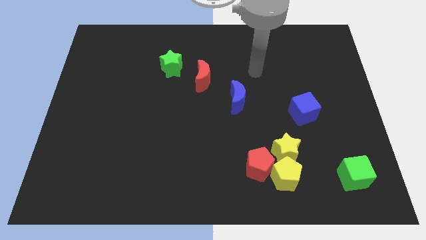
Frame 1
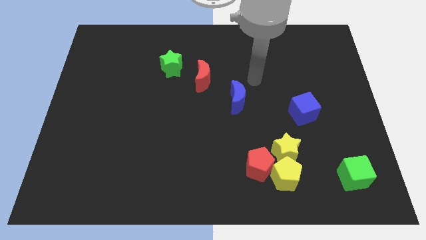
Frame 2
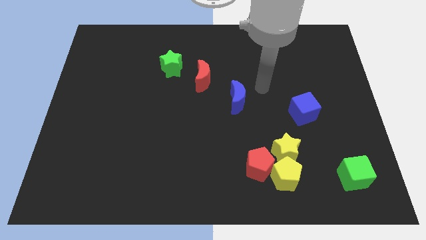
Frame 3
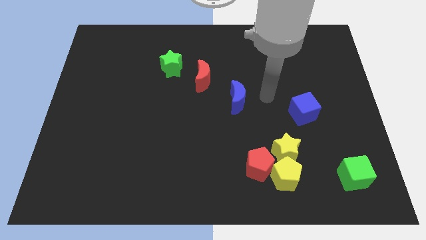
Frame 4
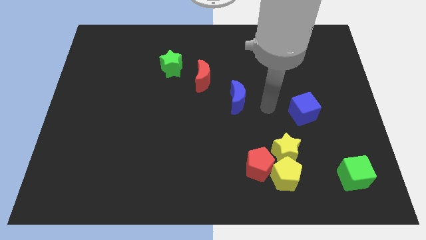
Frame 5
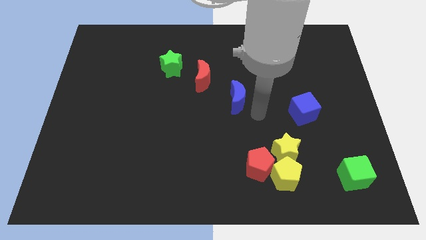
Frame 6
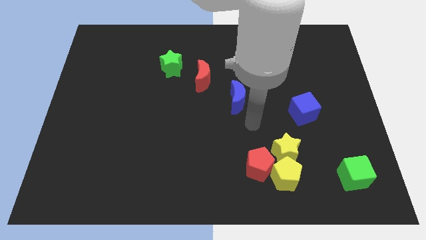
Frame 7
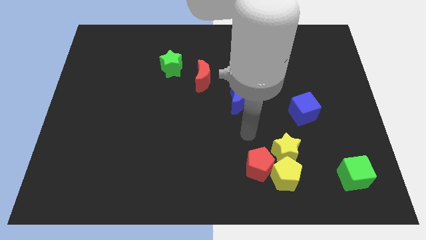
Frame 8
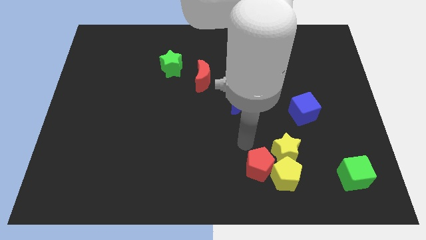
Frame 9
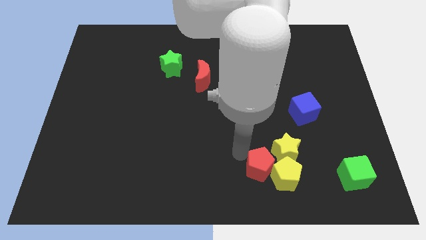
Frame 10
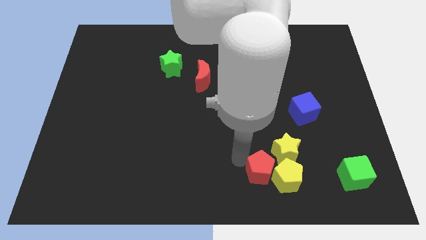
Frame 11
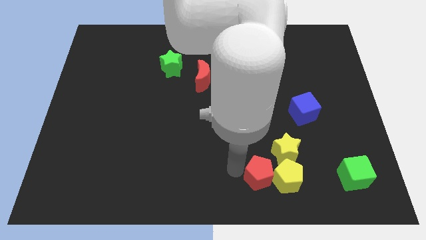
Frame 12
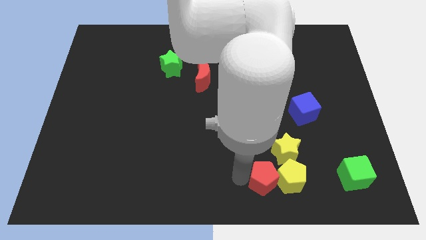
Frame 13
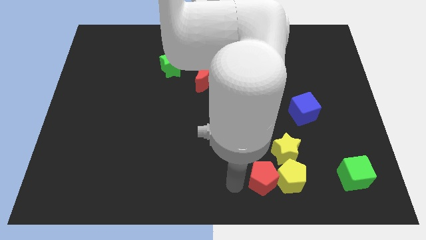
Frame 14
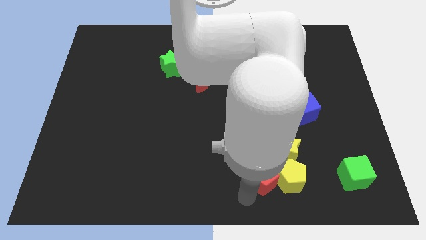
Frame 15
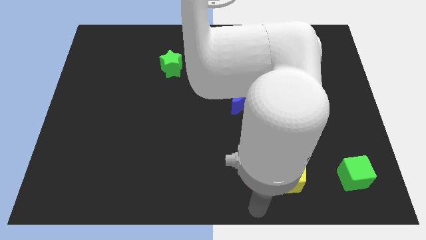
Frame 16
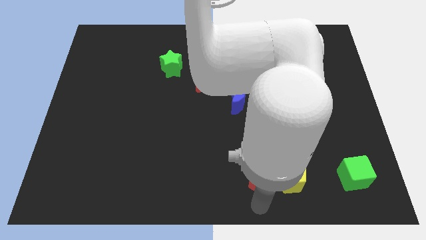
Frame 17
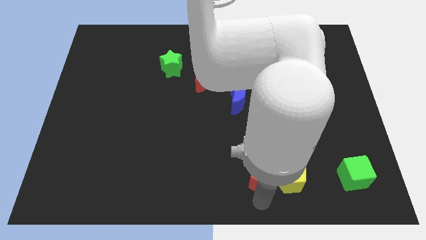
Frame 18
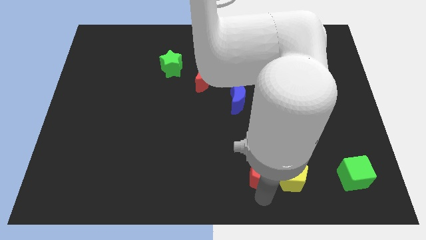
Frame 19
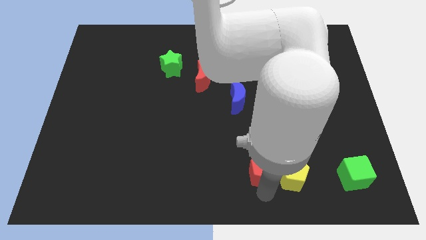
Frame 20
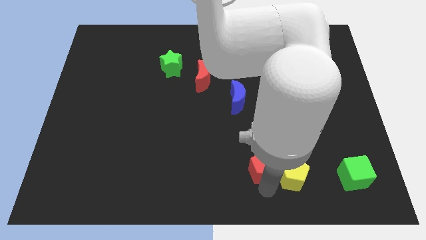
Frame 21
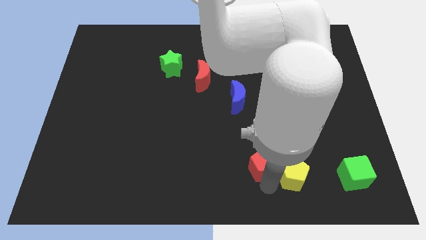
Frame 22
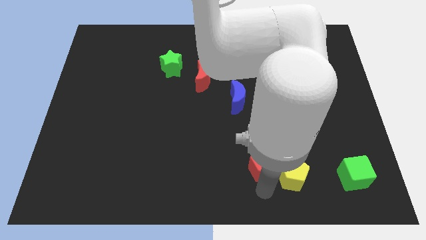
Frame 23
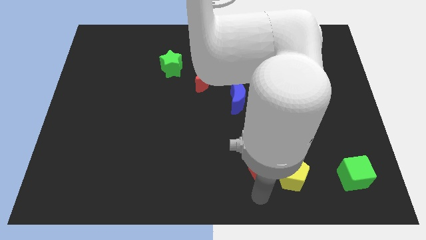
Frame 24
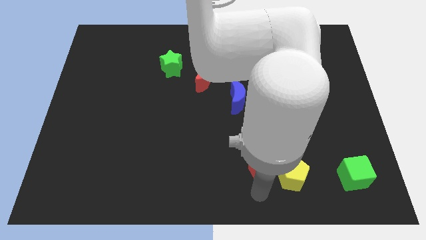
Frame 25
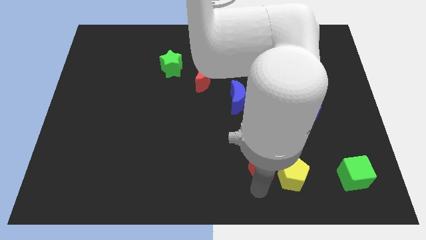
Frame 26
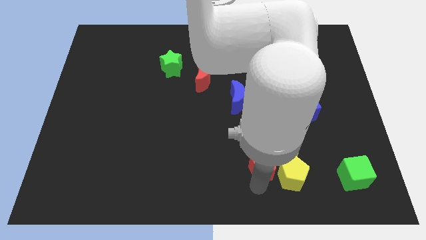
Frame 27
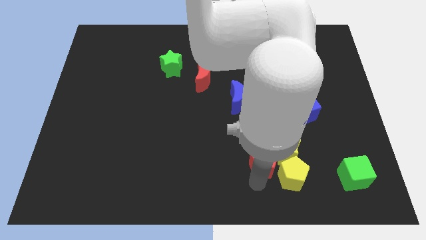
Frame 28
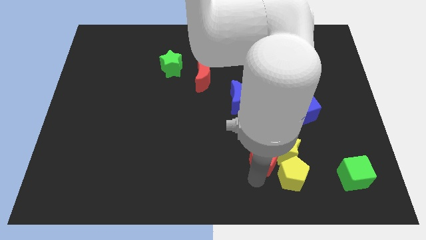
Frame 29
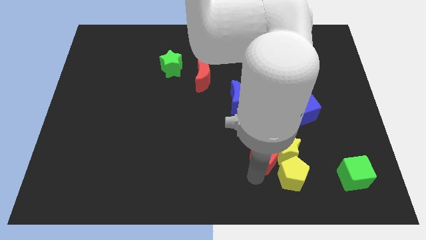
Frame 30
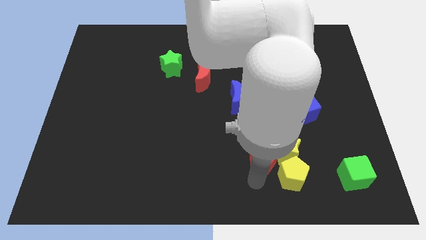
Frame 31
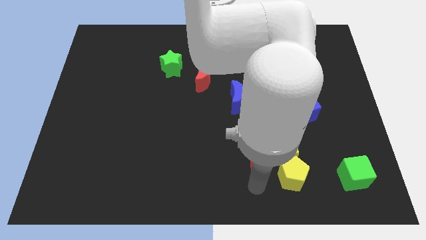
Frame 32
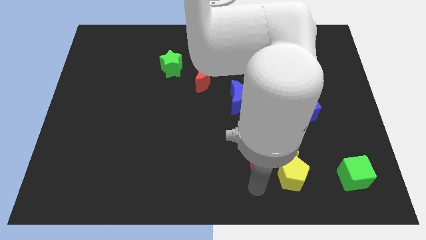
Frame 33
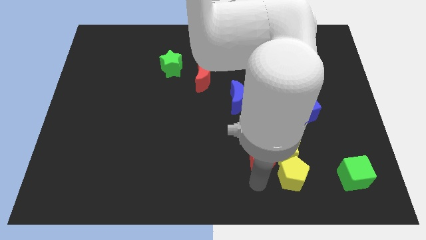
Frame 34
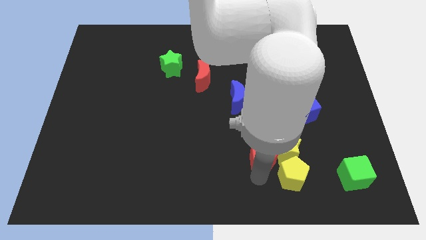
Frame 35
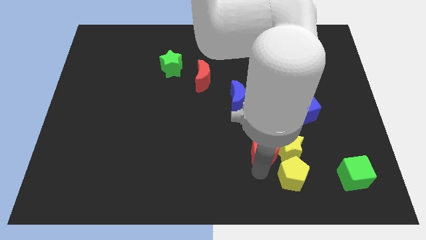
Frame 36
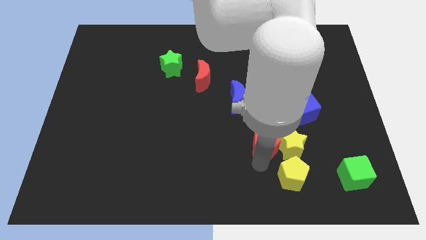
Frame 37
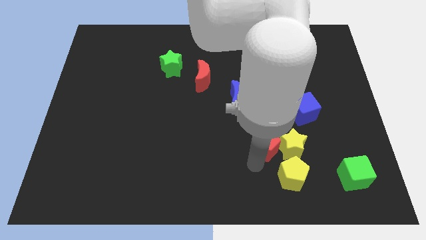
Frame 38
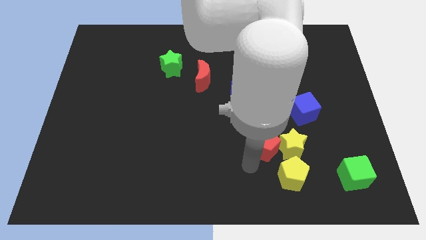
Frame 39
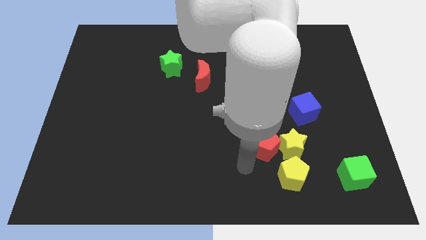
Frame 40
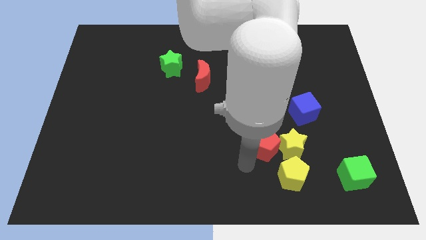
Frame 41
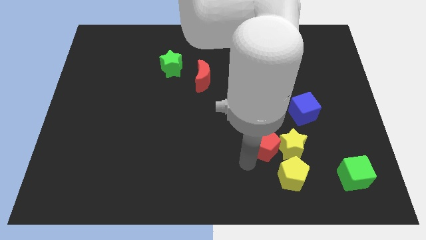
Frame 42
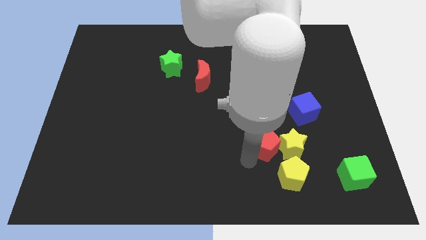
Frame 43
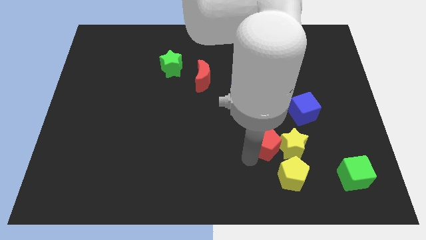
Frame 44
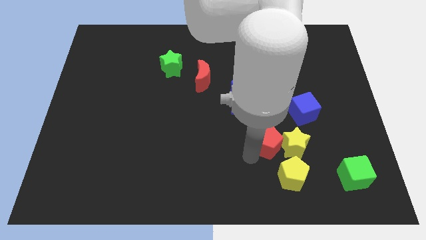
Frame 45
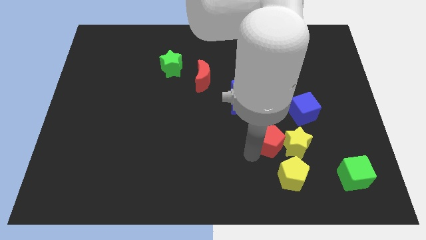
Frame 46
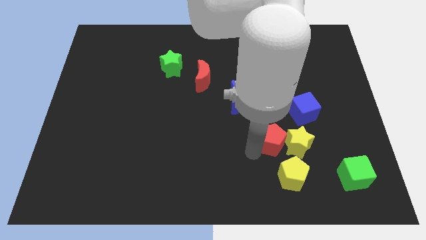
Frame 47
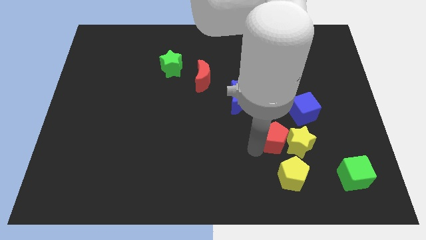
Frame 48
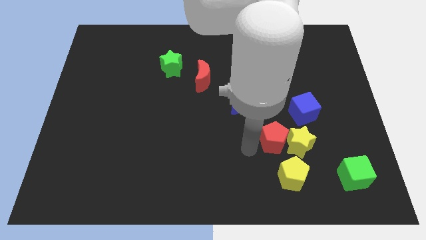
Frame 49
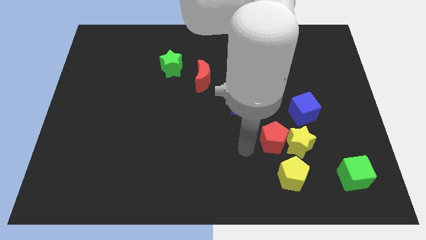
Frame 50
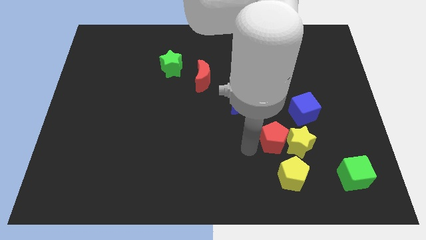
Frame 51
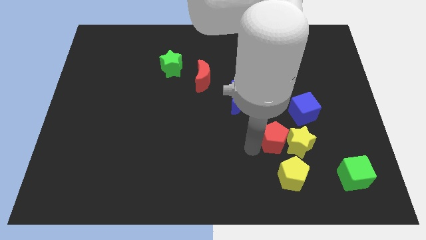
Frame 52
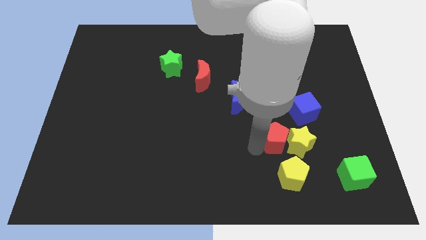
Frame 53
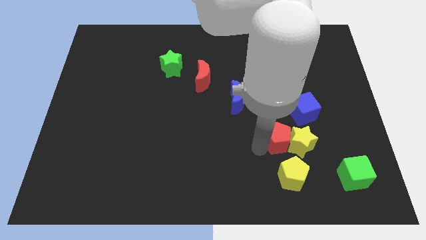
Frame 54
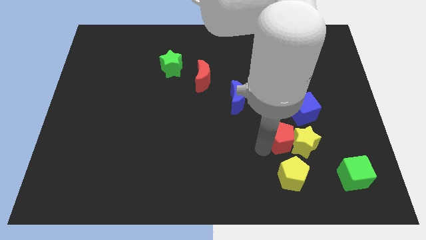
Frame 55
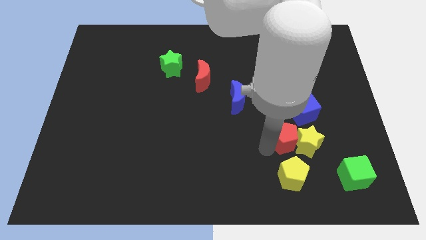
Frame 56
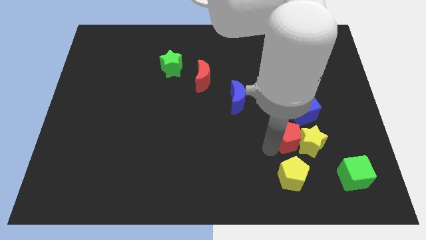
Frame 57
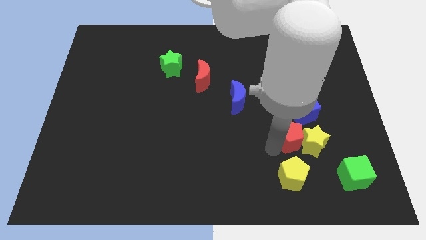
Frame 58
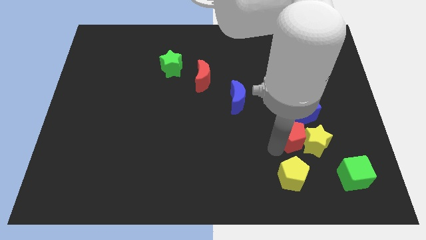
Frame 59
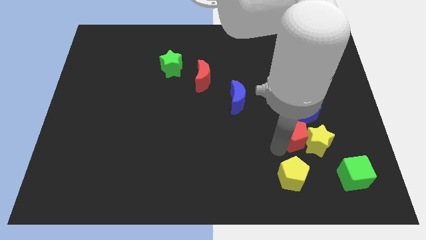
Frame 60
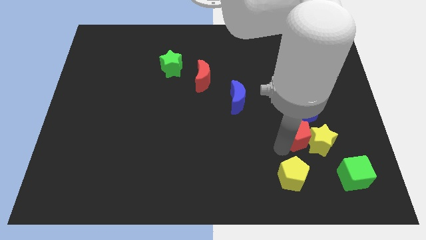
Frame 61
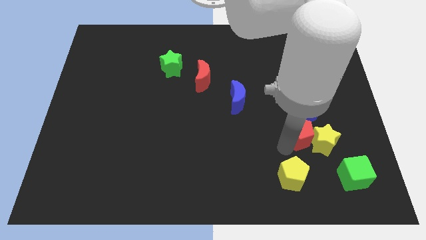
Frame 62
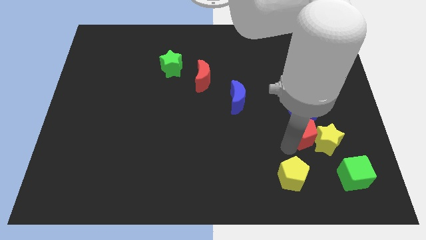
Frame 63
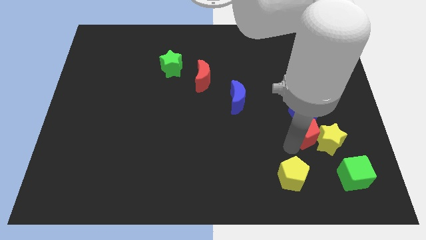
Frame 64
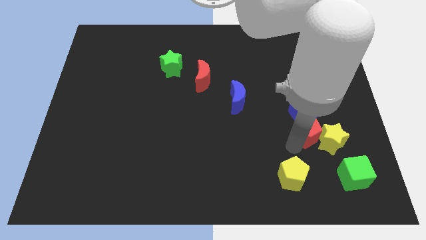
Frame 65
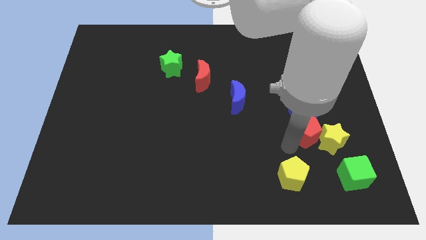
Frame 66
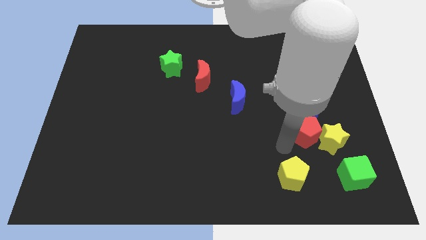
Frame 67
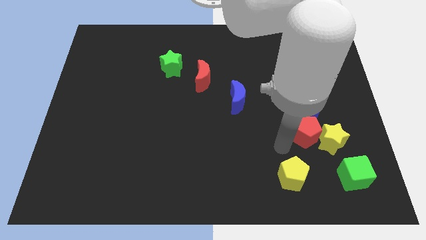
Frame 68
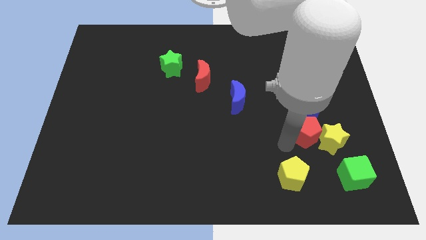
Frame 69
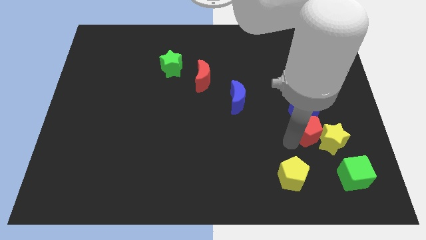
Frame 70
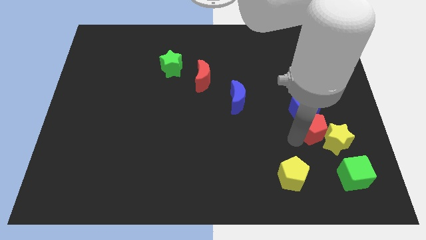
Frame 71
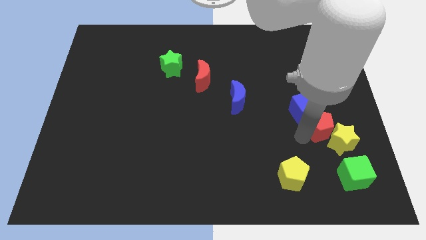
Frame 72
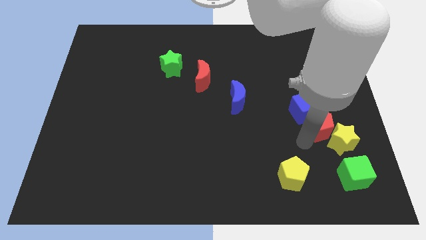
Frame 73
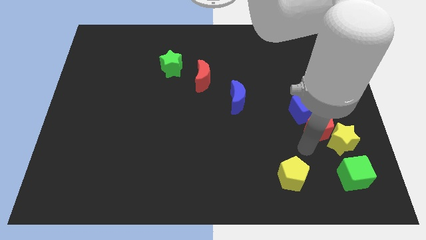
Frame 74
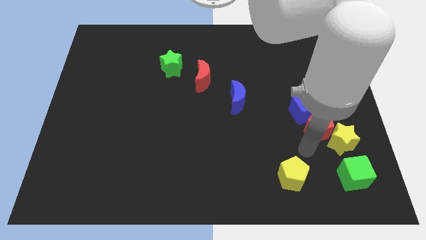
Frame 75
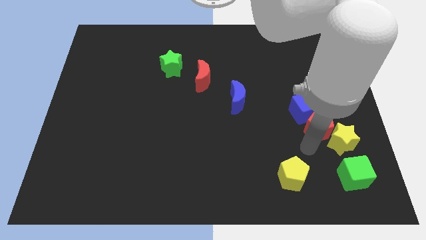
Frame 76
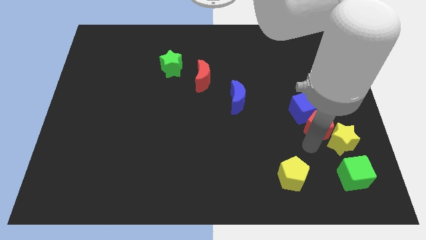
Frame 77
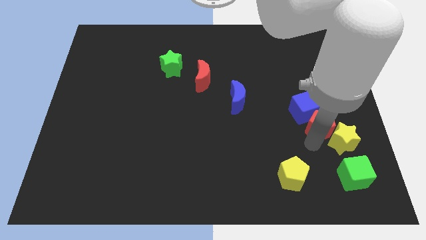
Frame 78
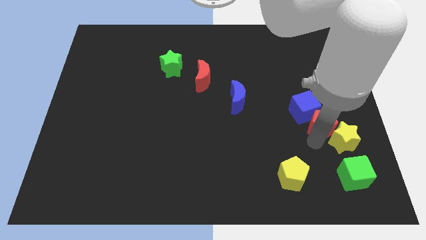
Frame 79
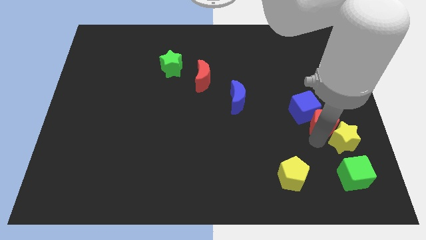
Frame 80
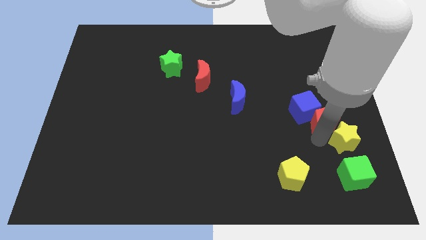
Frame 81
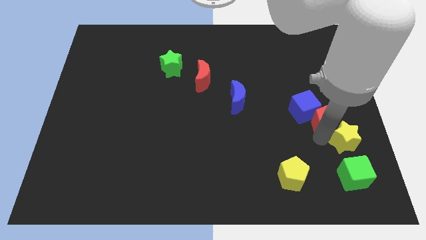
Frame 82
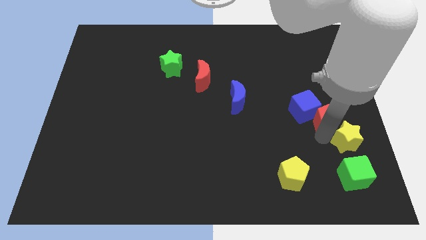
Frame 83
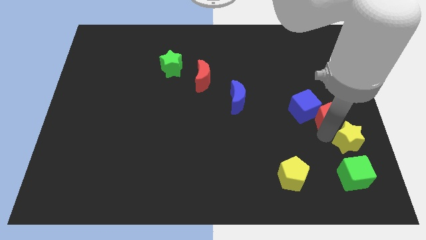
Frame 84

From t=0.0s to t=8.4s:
slide the red pentagon to the center right
